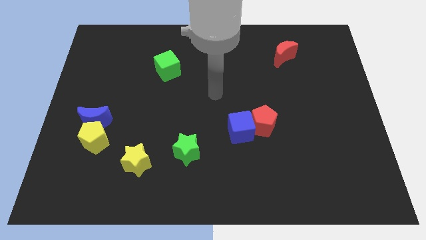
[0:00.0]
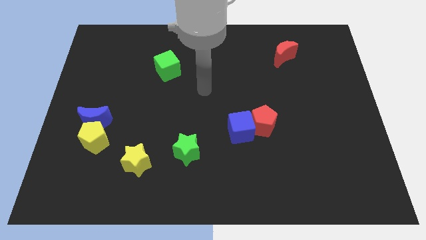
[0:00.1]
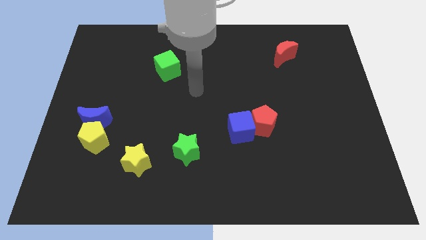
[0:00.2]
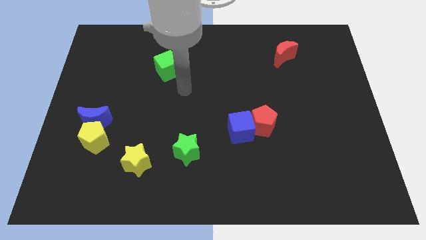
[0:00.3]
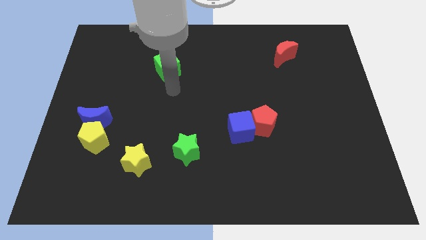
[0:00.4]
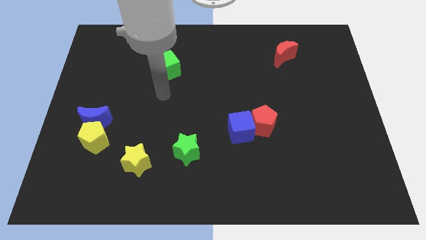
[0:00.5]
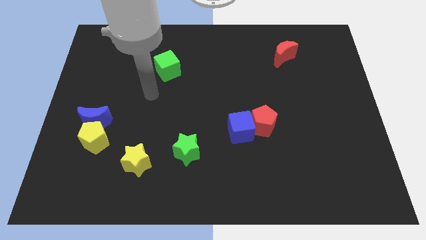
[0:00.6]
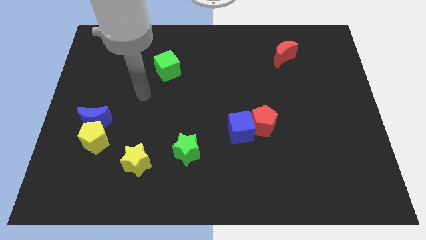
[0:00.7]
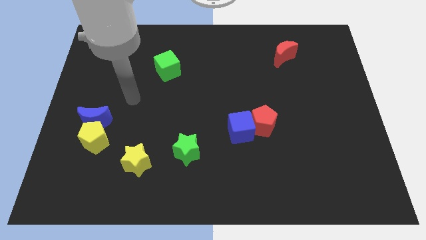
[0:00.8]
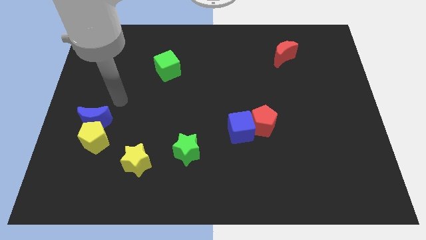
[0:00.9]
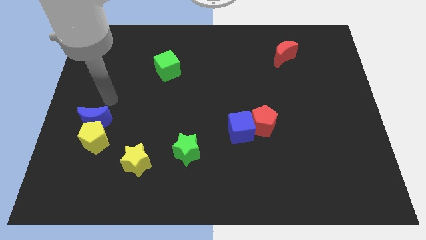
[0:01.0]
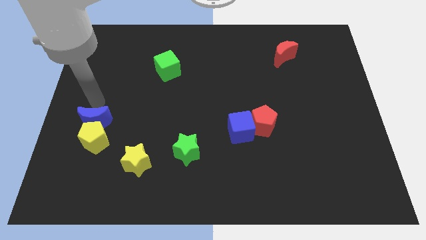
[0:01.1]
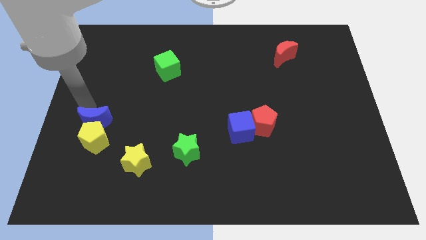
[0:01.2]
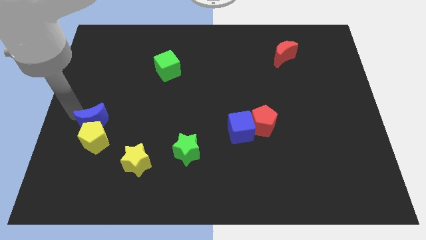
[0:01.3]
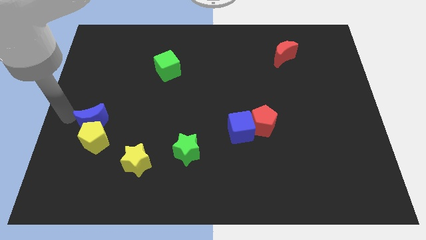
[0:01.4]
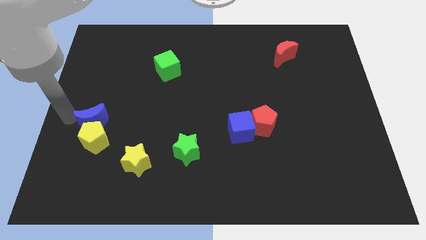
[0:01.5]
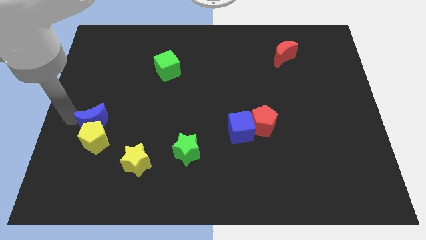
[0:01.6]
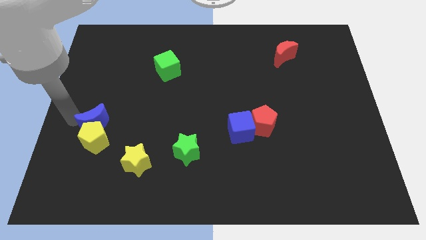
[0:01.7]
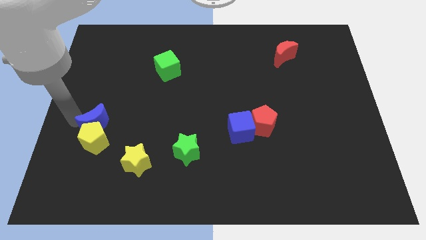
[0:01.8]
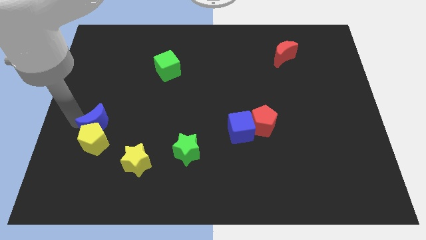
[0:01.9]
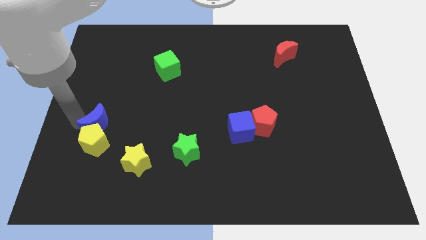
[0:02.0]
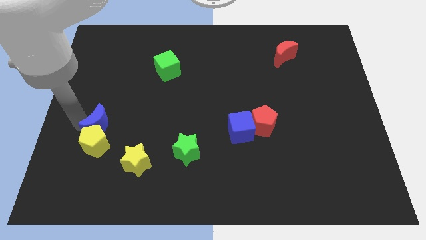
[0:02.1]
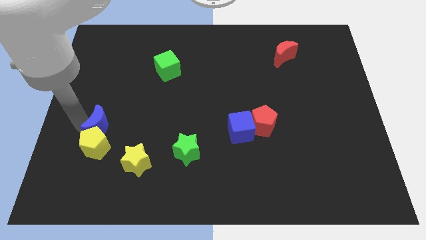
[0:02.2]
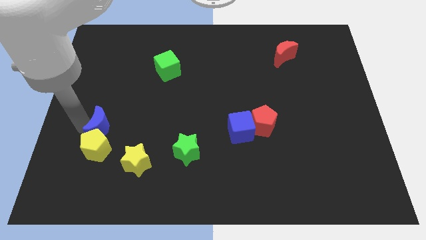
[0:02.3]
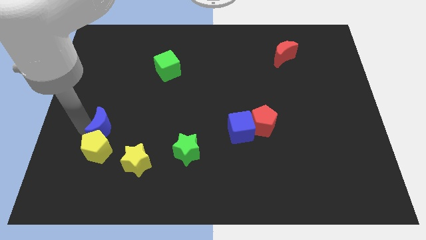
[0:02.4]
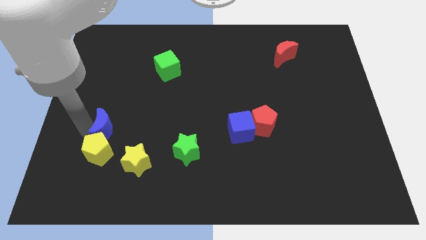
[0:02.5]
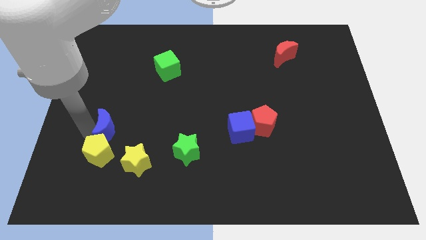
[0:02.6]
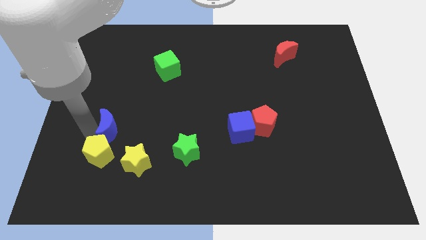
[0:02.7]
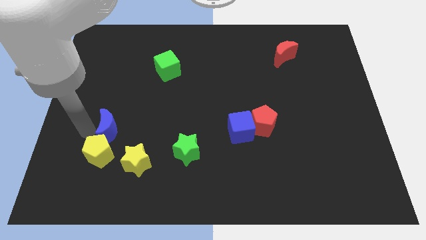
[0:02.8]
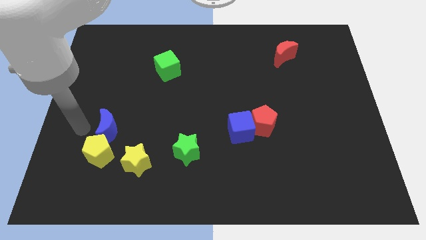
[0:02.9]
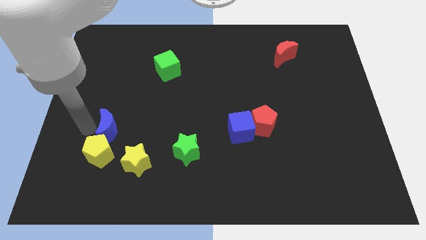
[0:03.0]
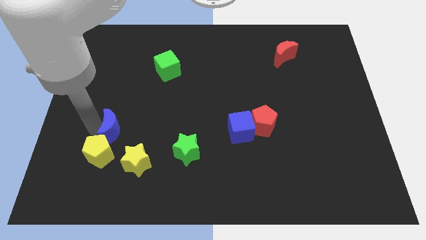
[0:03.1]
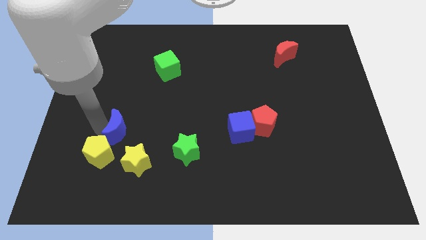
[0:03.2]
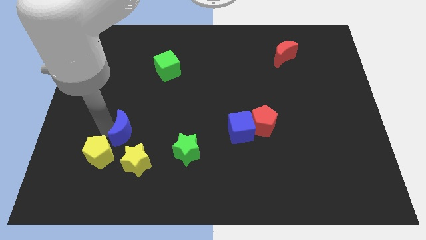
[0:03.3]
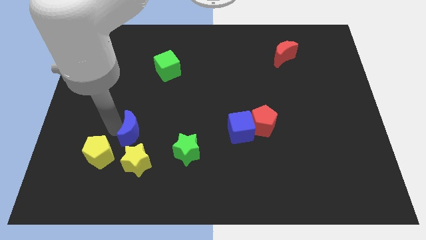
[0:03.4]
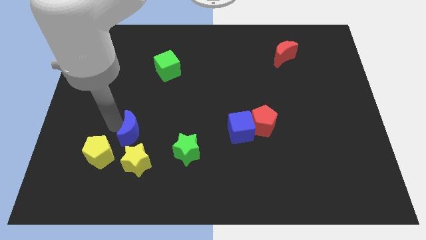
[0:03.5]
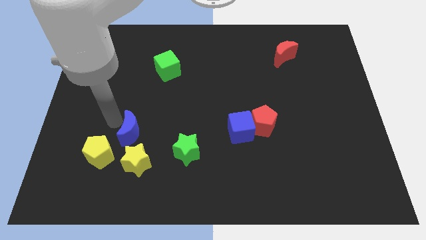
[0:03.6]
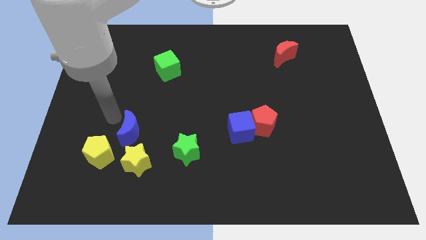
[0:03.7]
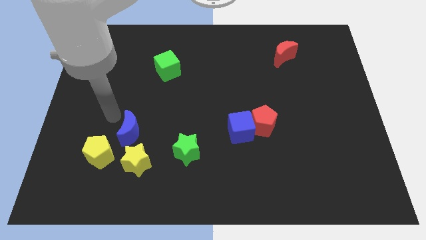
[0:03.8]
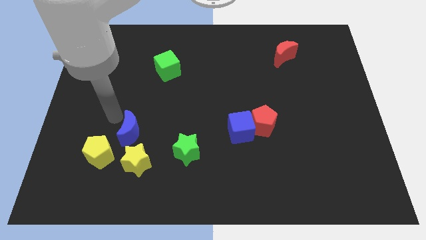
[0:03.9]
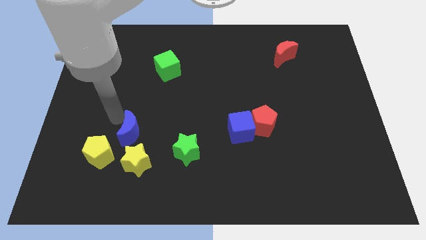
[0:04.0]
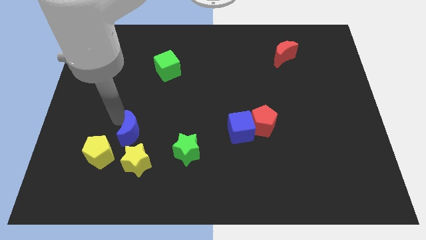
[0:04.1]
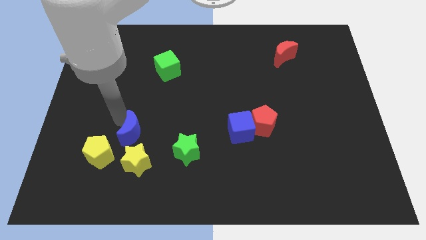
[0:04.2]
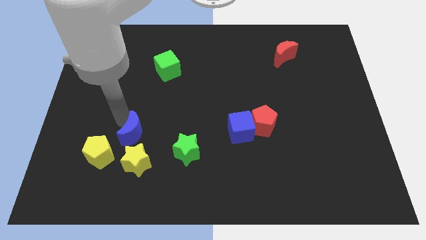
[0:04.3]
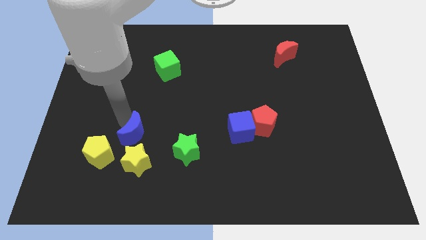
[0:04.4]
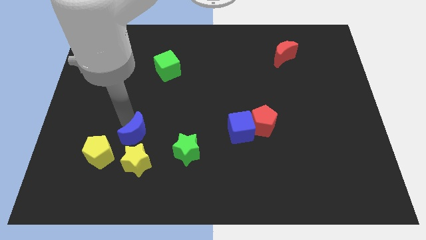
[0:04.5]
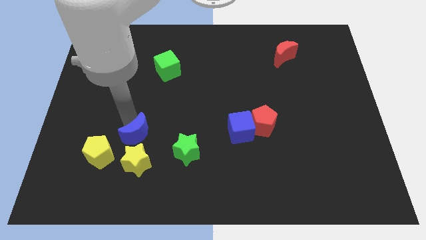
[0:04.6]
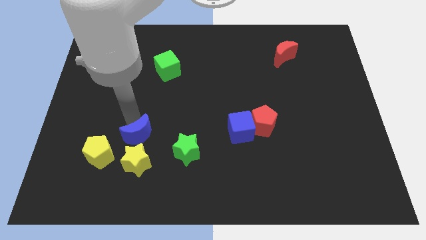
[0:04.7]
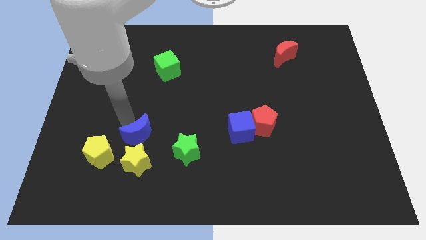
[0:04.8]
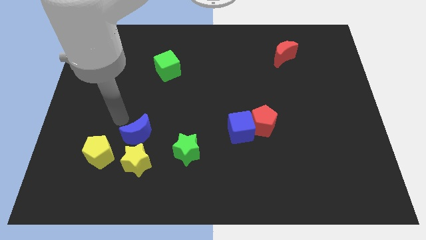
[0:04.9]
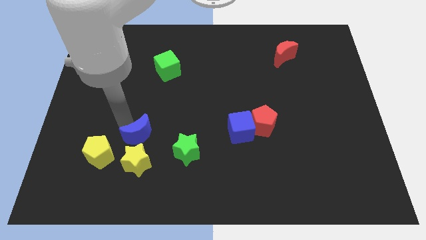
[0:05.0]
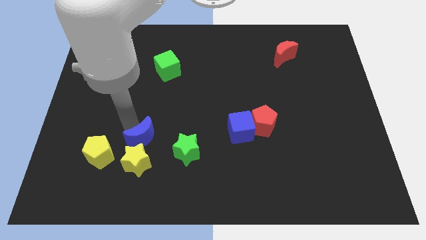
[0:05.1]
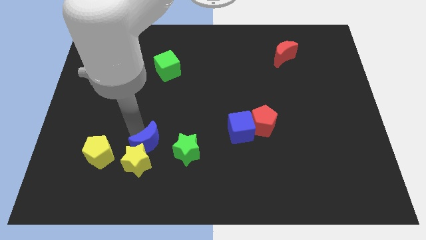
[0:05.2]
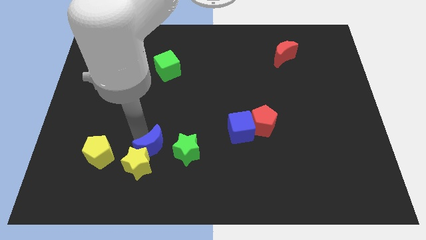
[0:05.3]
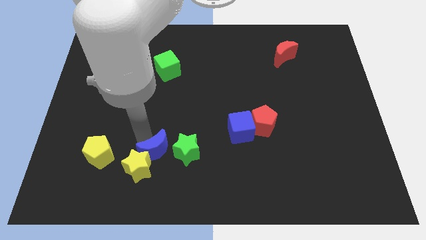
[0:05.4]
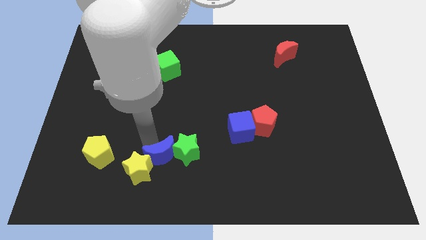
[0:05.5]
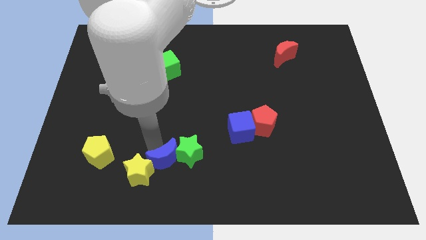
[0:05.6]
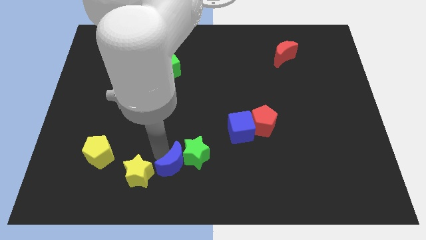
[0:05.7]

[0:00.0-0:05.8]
move the blue moon to the bottom
